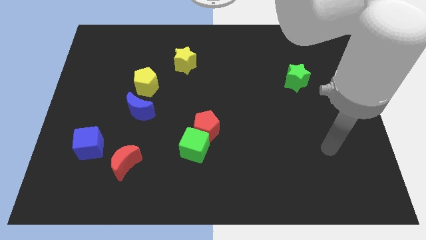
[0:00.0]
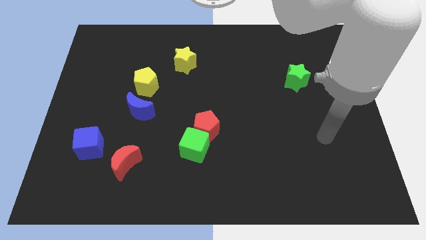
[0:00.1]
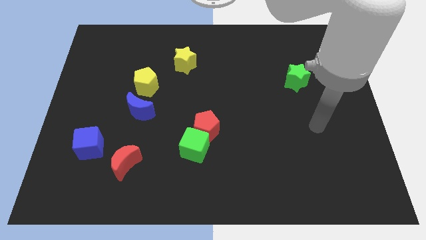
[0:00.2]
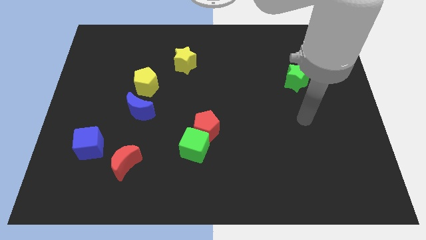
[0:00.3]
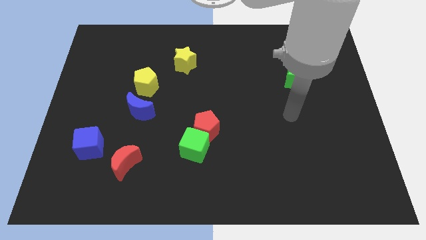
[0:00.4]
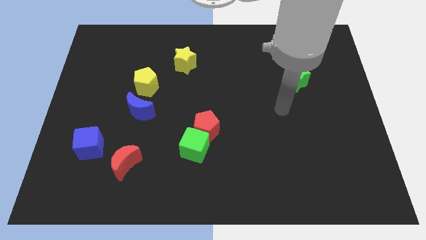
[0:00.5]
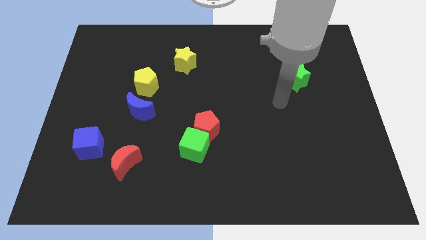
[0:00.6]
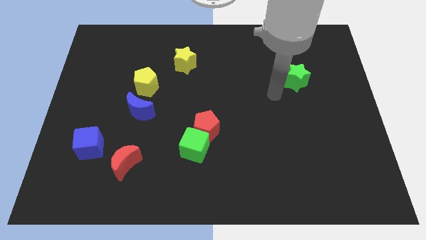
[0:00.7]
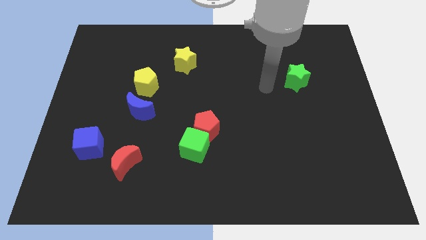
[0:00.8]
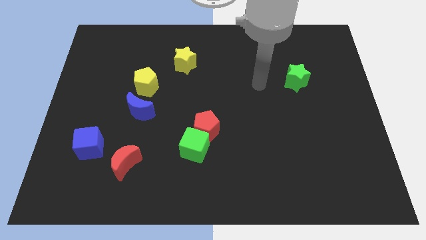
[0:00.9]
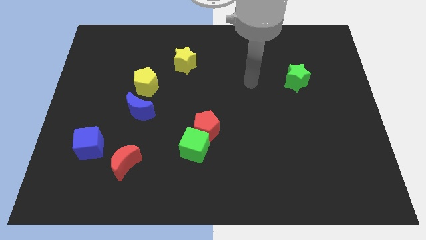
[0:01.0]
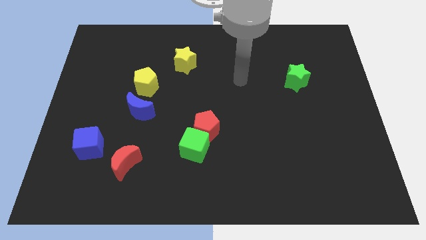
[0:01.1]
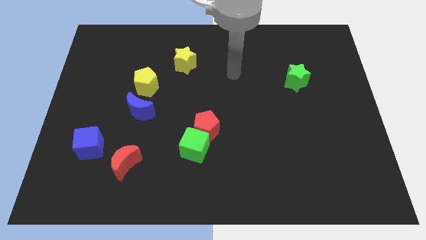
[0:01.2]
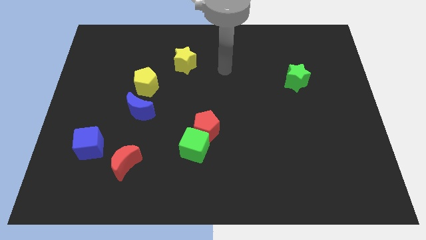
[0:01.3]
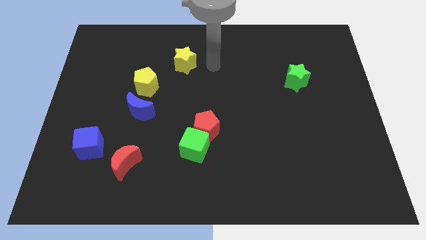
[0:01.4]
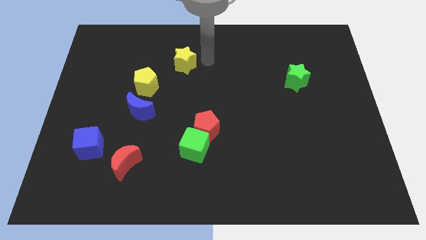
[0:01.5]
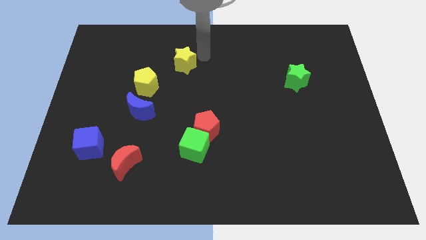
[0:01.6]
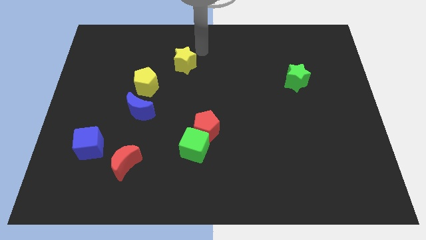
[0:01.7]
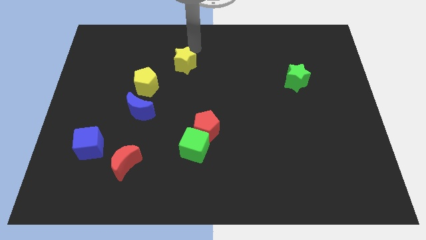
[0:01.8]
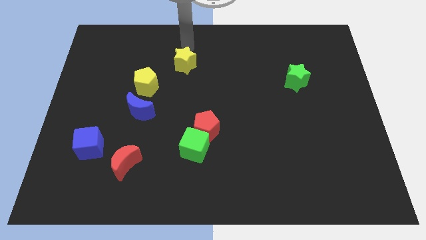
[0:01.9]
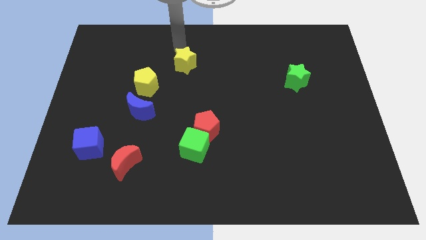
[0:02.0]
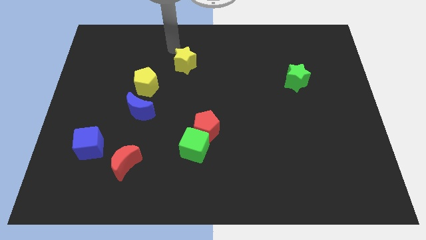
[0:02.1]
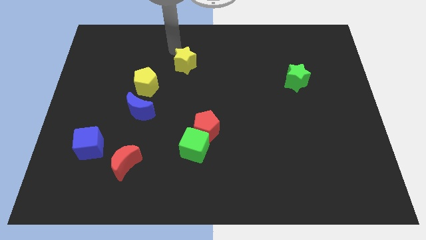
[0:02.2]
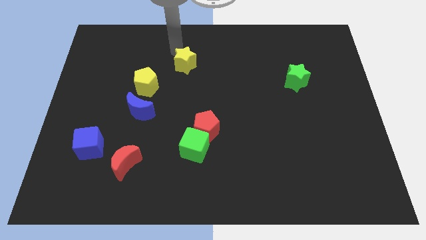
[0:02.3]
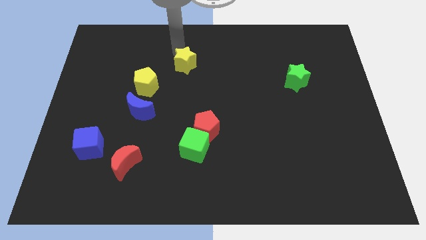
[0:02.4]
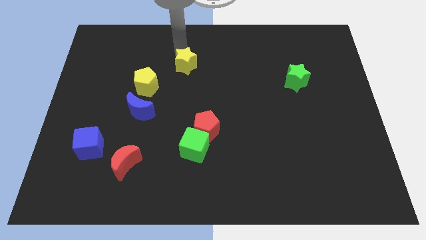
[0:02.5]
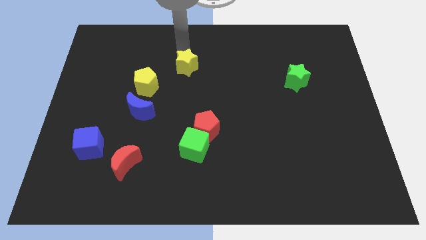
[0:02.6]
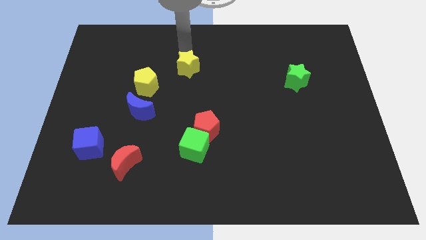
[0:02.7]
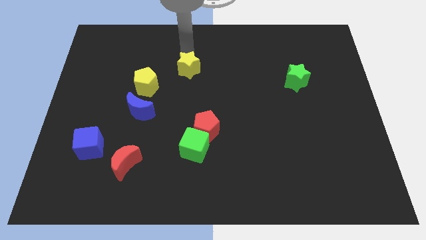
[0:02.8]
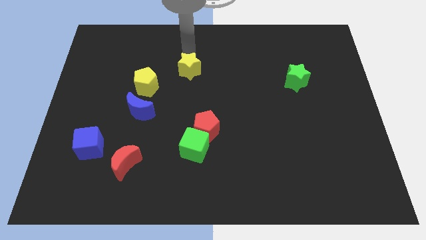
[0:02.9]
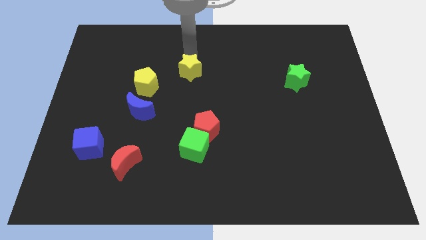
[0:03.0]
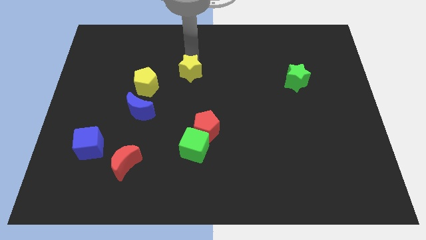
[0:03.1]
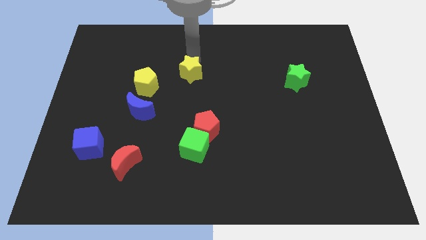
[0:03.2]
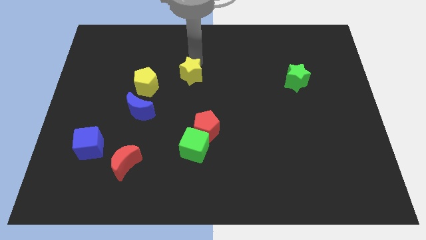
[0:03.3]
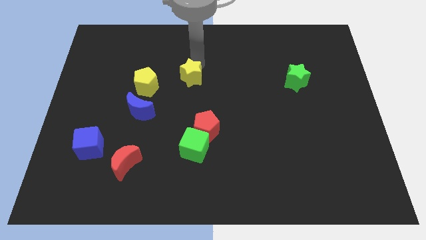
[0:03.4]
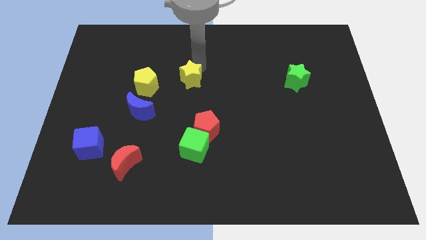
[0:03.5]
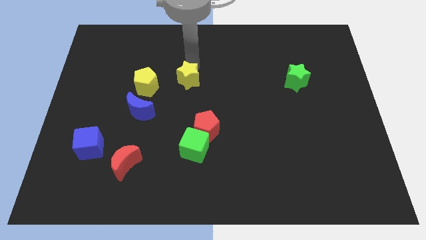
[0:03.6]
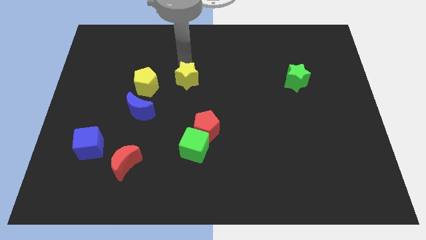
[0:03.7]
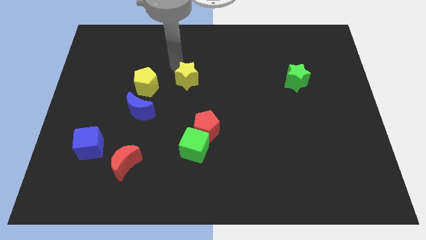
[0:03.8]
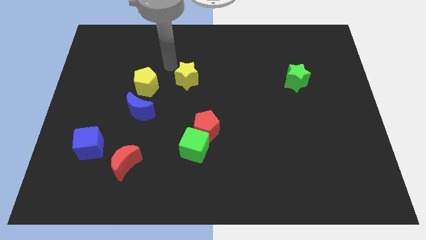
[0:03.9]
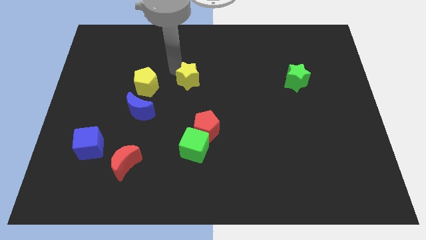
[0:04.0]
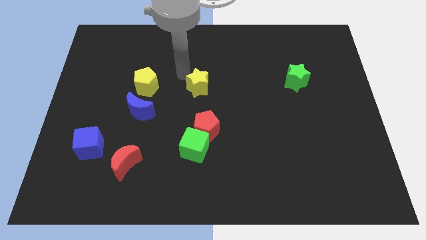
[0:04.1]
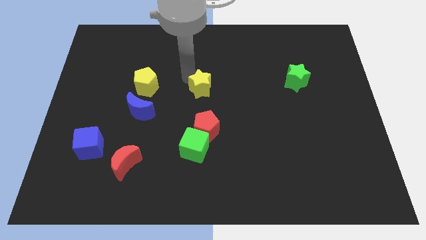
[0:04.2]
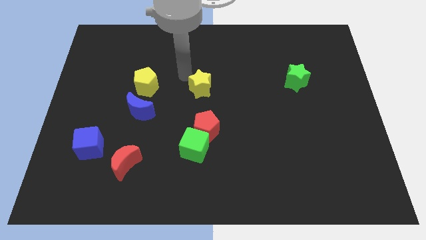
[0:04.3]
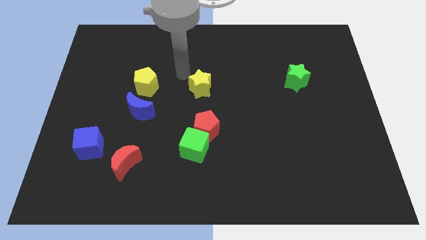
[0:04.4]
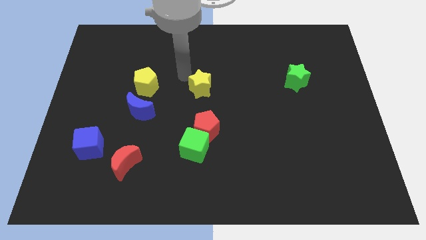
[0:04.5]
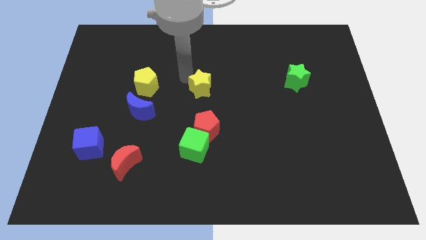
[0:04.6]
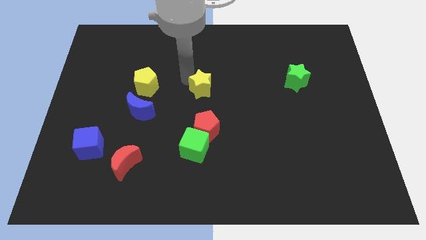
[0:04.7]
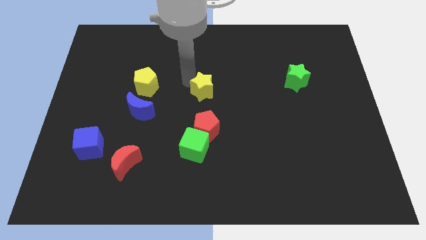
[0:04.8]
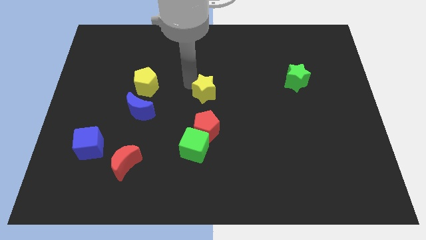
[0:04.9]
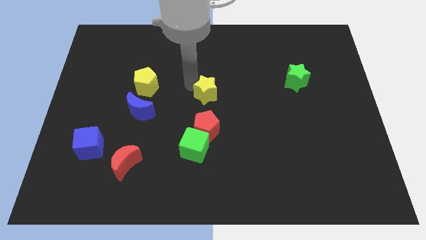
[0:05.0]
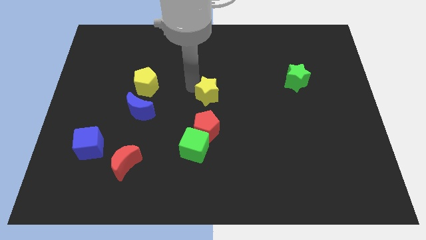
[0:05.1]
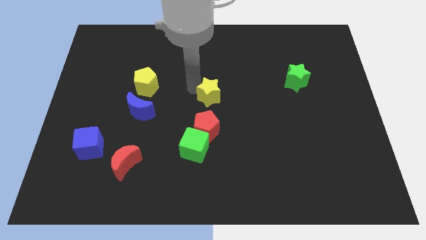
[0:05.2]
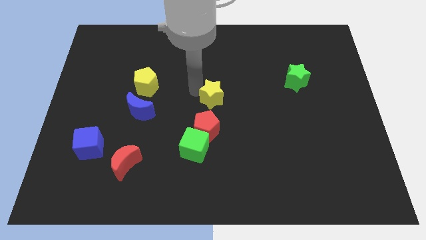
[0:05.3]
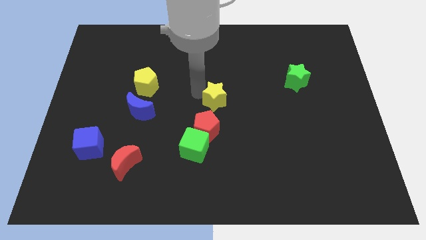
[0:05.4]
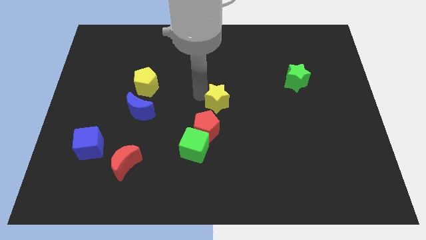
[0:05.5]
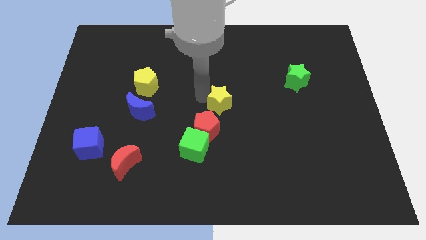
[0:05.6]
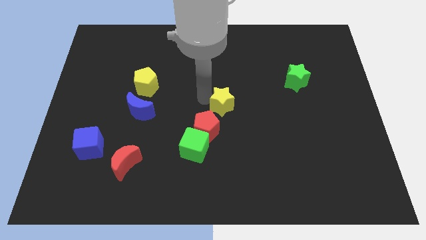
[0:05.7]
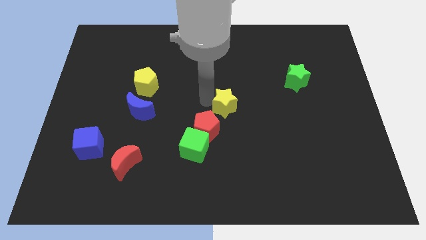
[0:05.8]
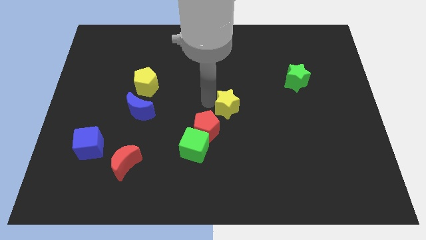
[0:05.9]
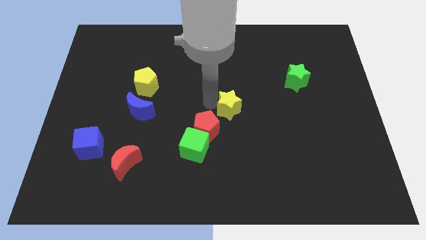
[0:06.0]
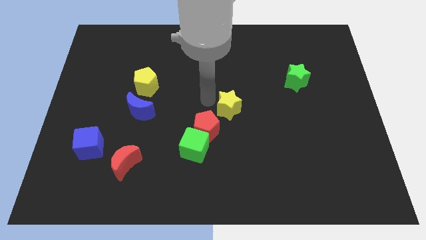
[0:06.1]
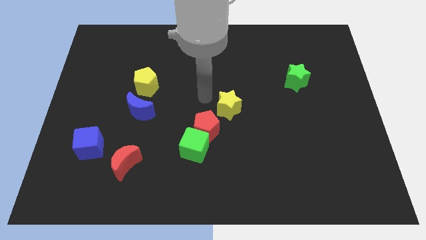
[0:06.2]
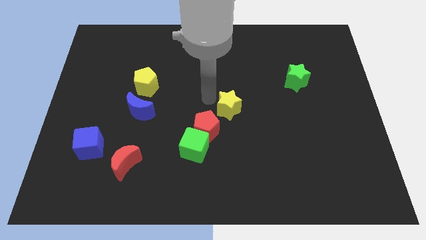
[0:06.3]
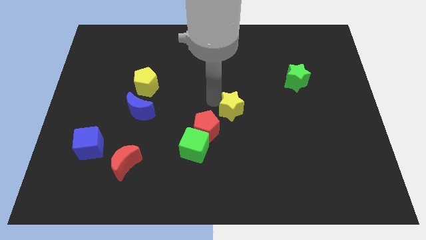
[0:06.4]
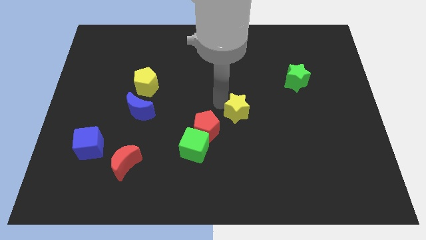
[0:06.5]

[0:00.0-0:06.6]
move the yellow star down and to the right

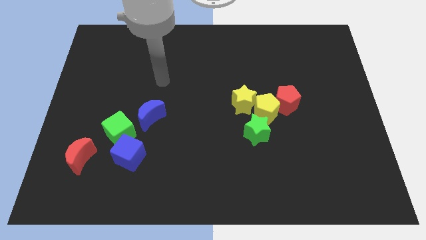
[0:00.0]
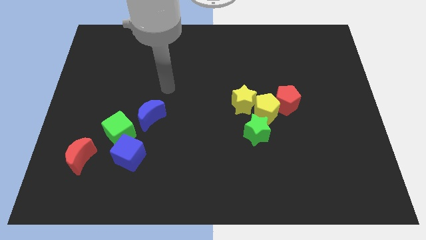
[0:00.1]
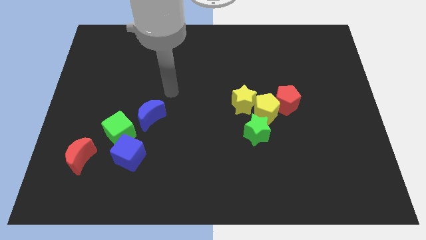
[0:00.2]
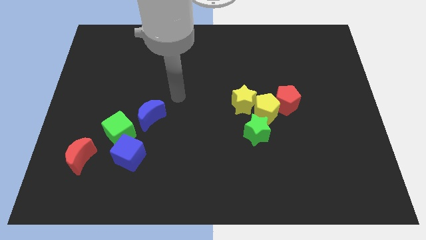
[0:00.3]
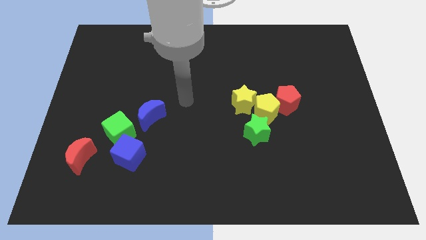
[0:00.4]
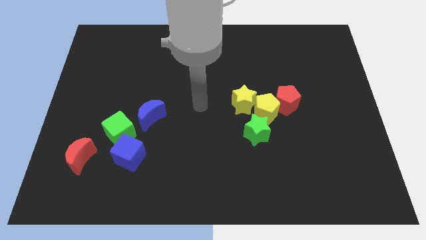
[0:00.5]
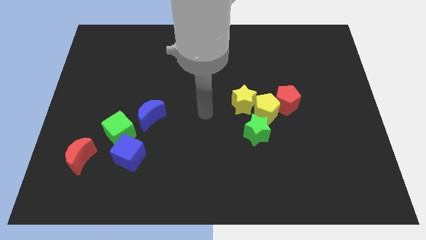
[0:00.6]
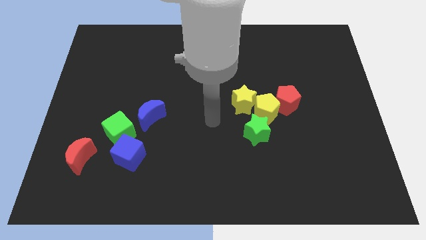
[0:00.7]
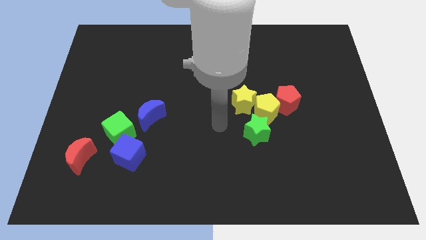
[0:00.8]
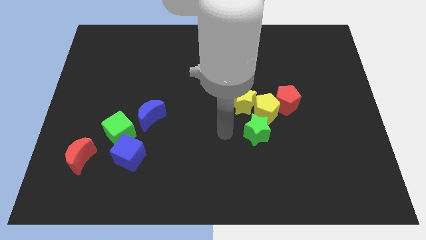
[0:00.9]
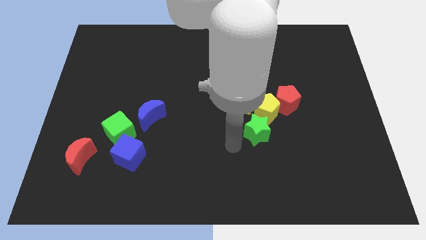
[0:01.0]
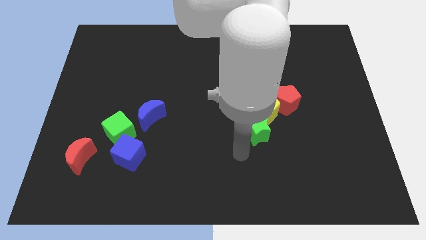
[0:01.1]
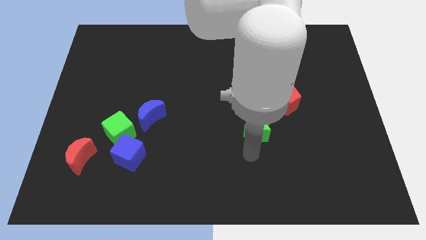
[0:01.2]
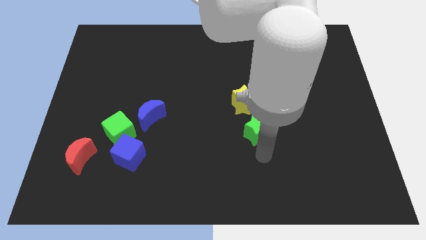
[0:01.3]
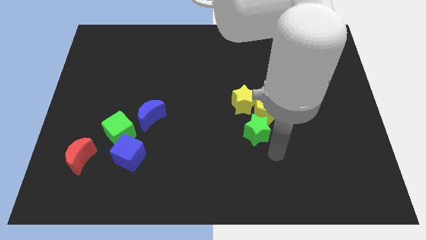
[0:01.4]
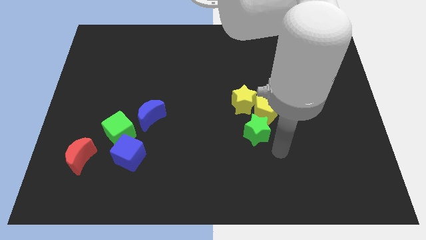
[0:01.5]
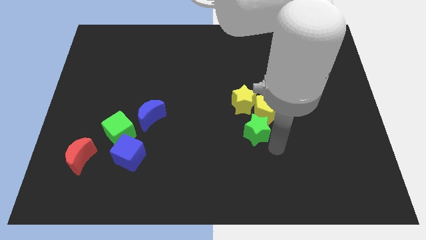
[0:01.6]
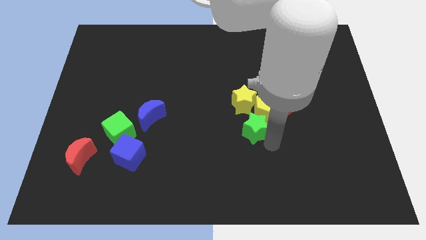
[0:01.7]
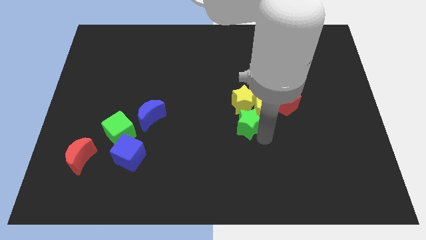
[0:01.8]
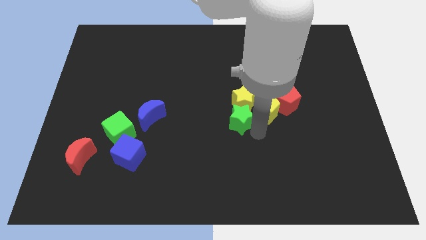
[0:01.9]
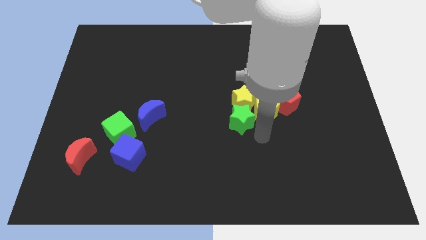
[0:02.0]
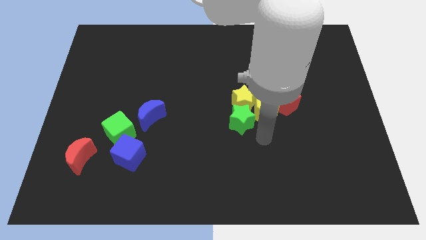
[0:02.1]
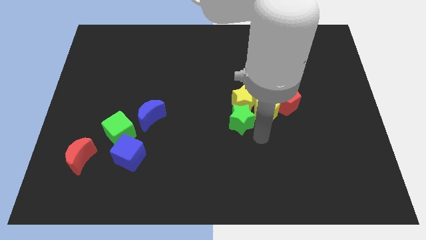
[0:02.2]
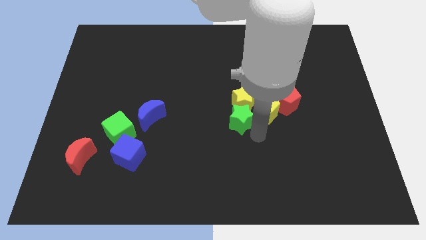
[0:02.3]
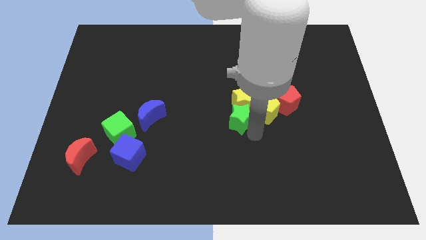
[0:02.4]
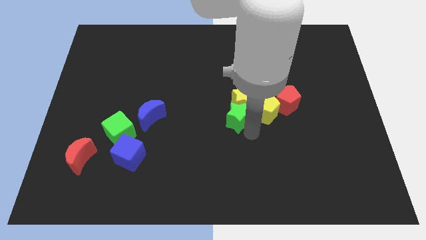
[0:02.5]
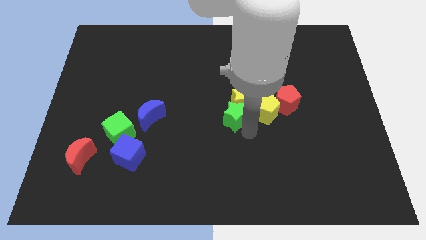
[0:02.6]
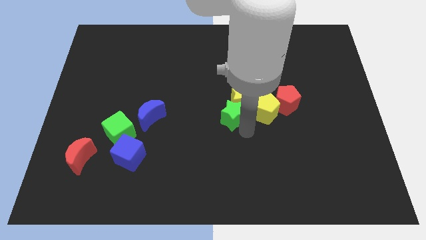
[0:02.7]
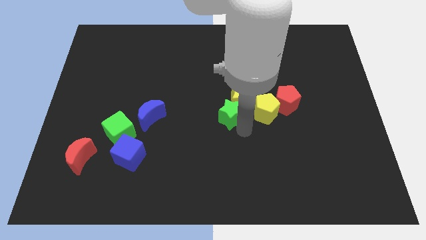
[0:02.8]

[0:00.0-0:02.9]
slide the green star upwards and to the left diagonally somewhat
